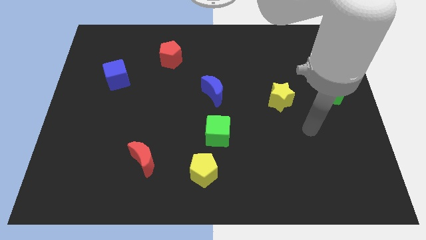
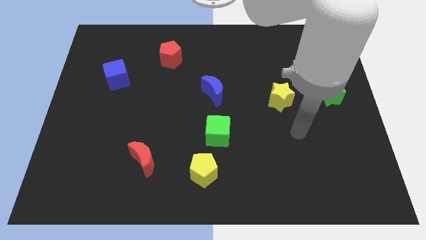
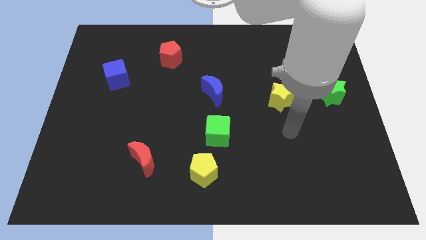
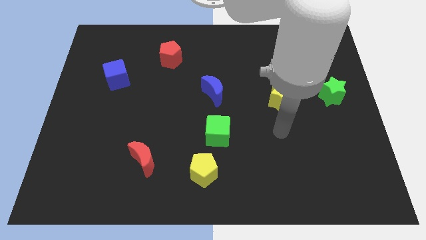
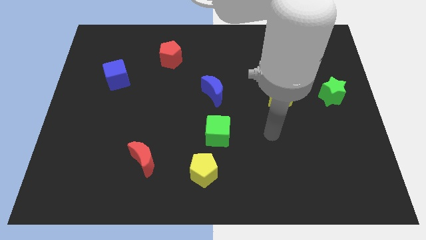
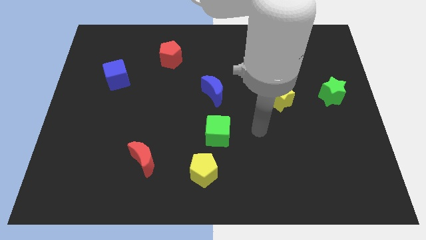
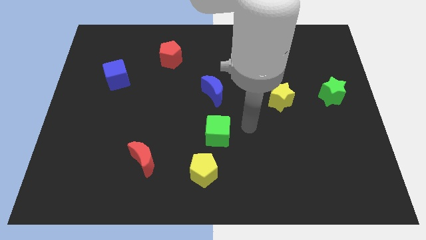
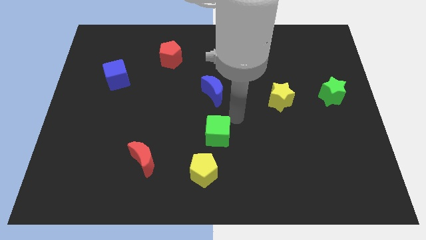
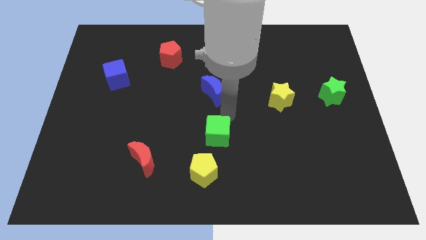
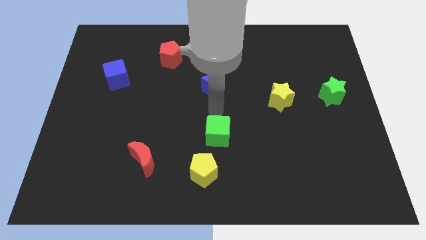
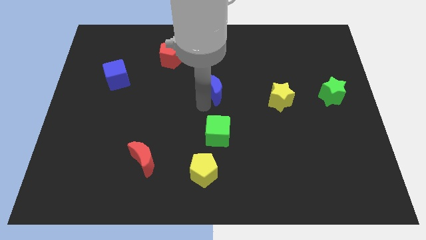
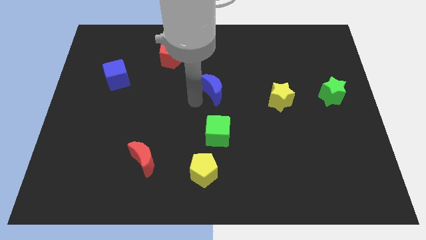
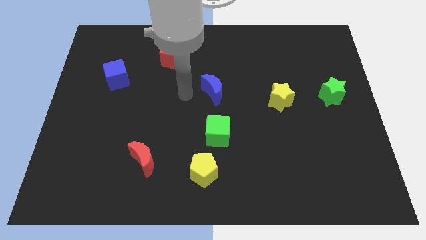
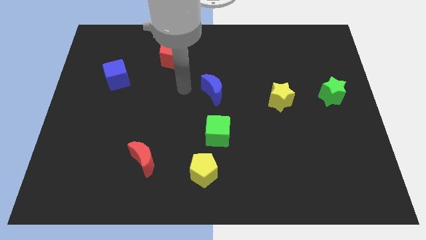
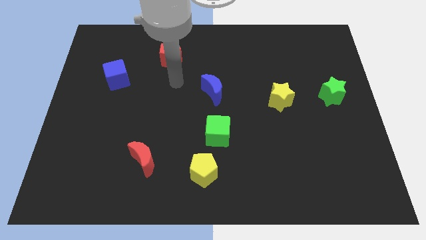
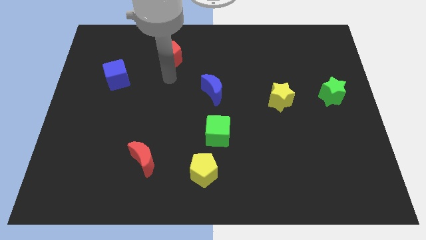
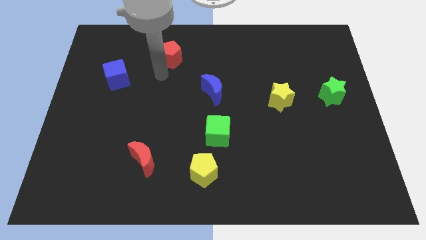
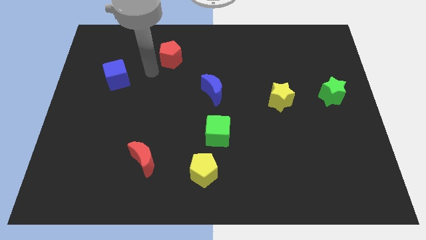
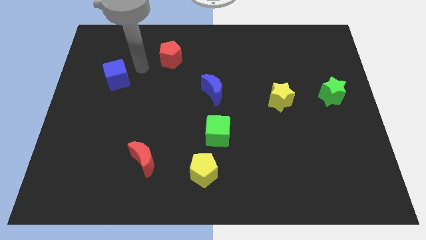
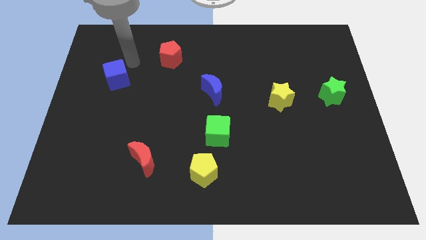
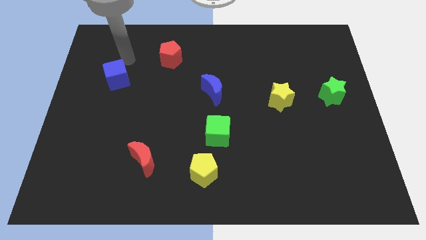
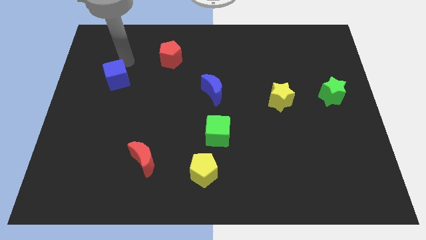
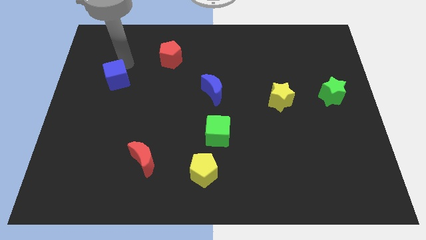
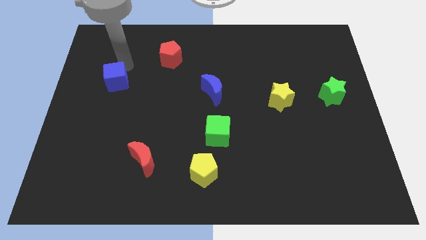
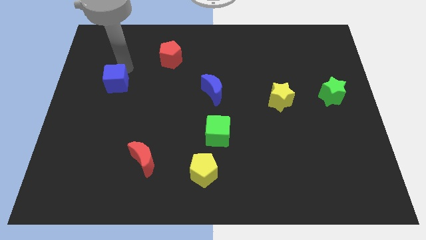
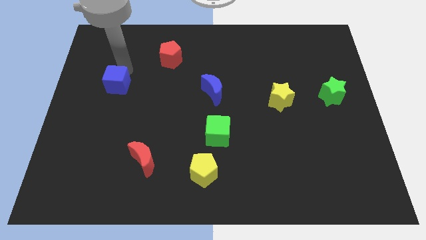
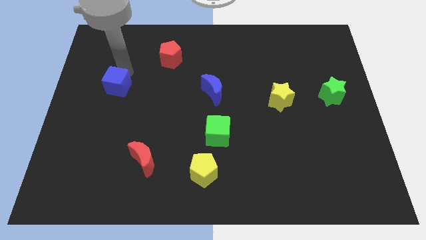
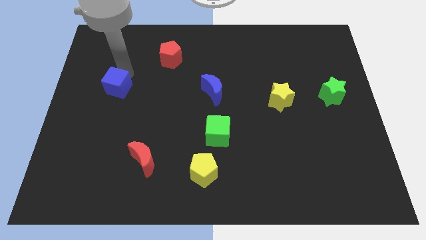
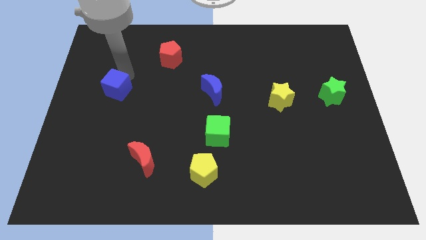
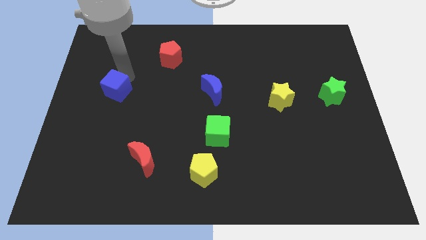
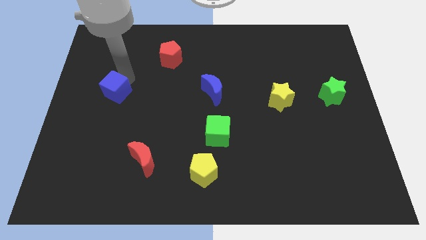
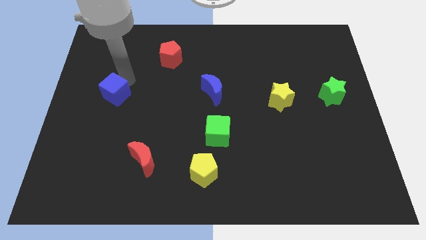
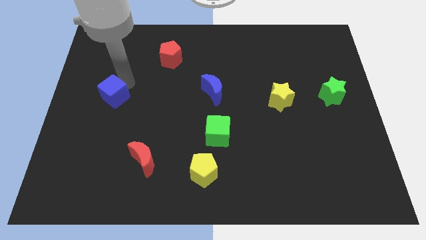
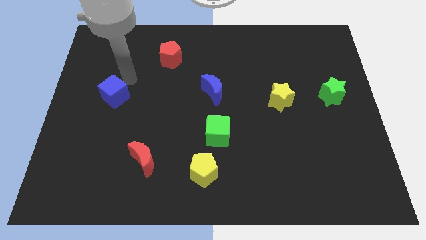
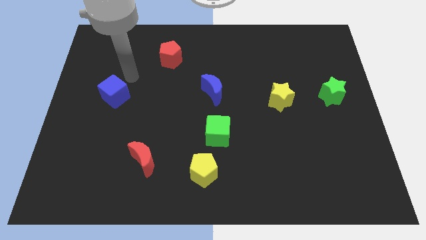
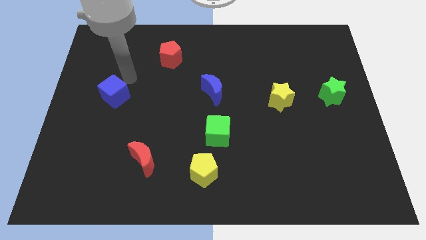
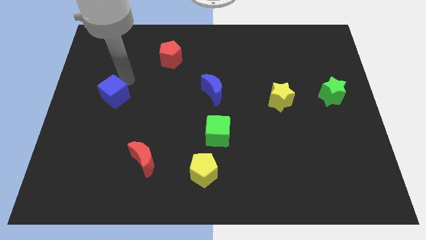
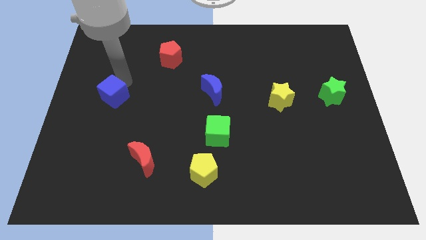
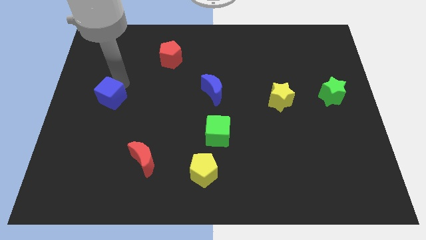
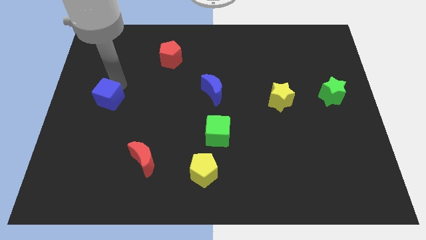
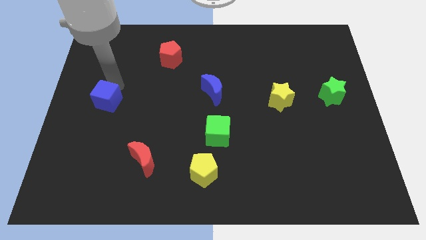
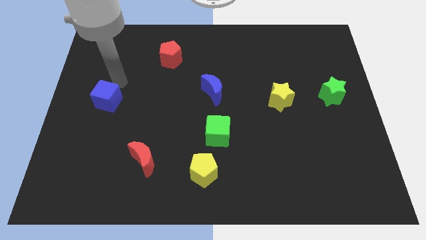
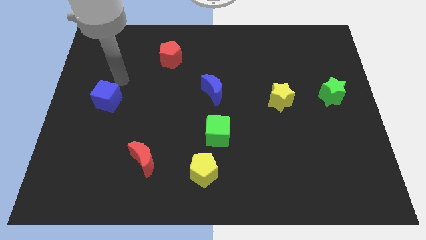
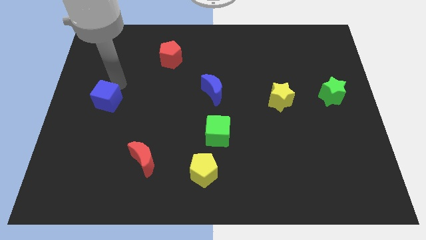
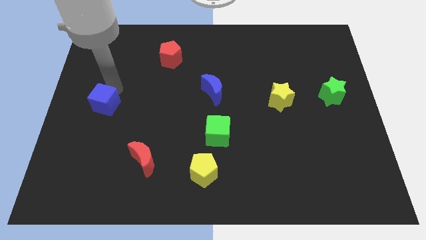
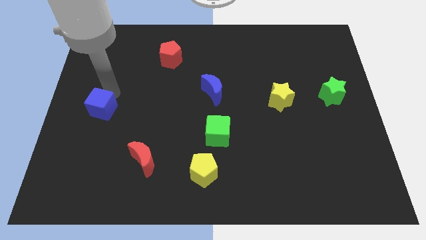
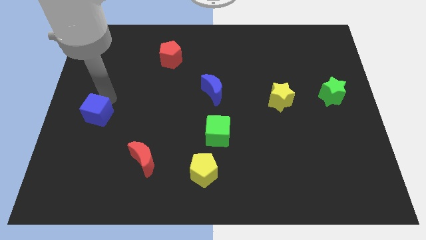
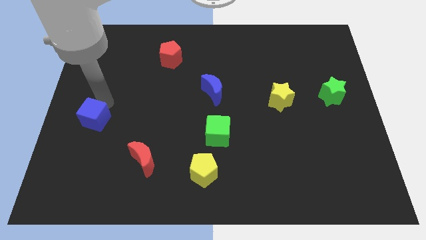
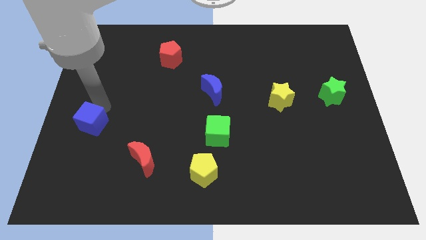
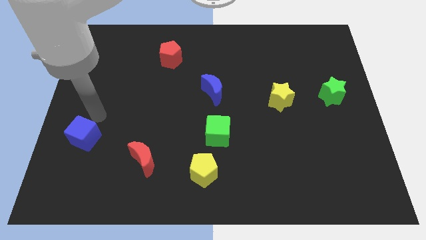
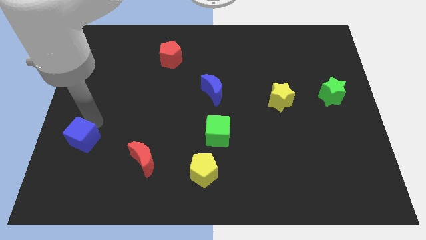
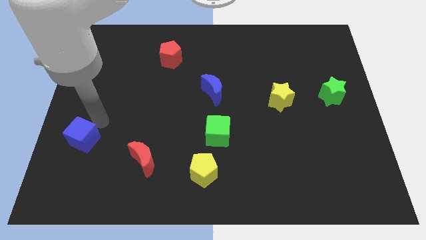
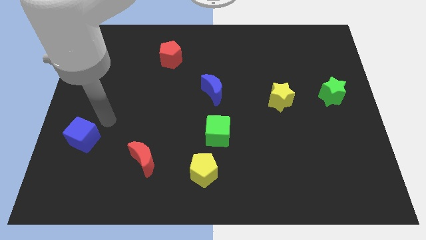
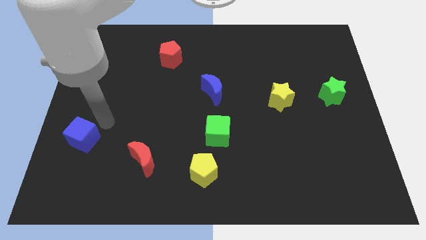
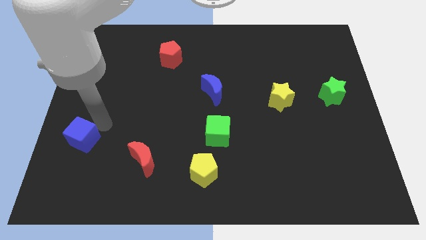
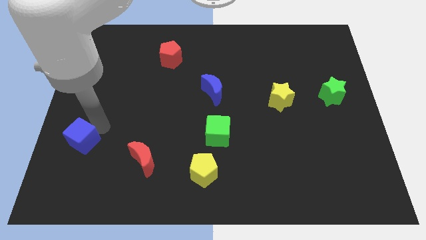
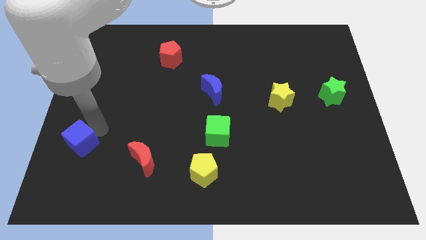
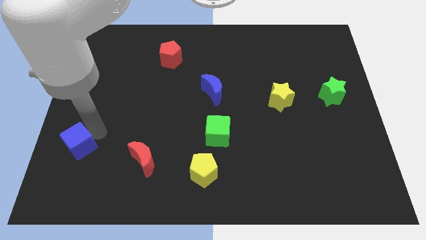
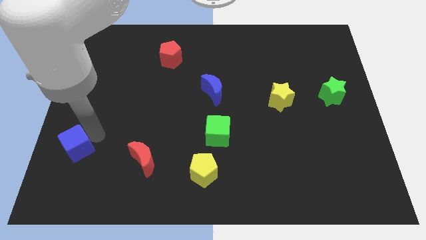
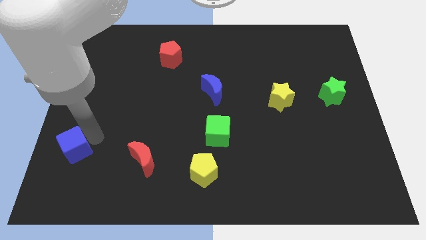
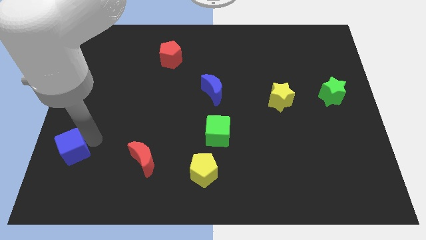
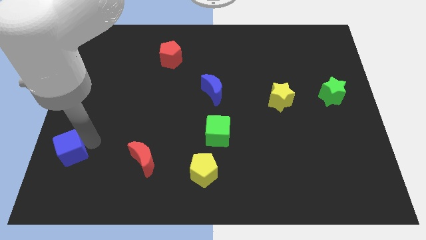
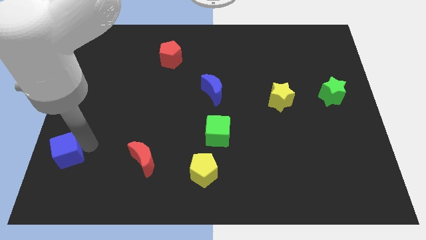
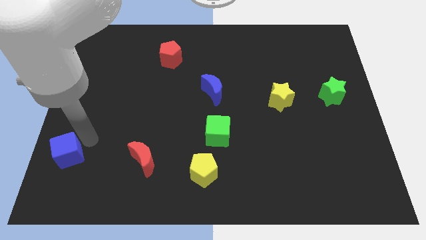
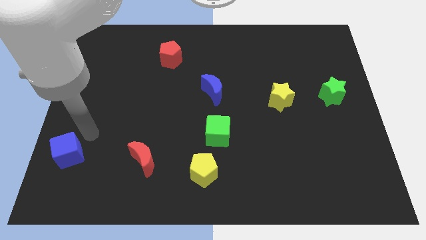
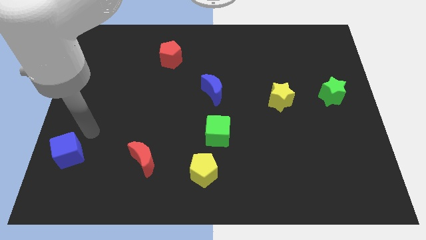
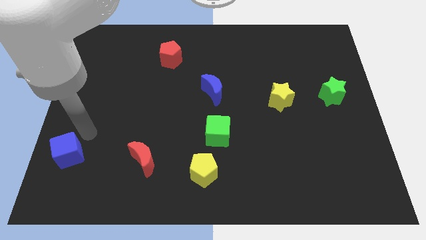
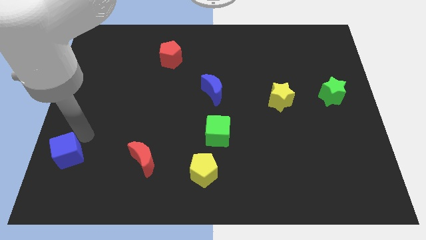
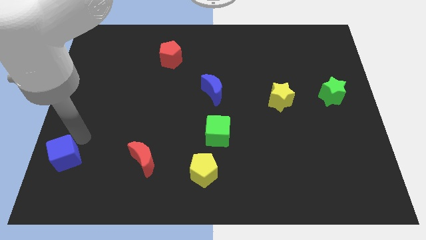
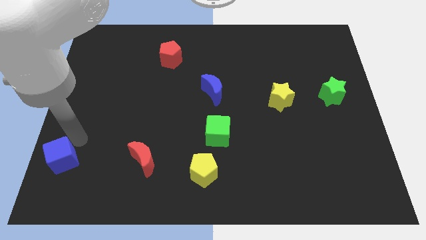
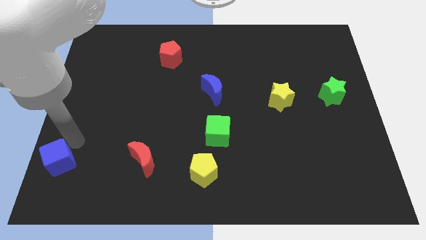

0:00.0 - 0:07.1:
move the blue cube to the bottom left corner

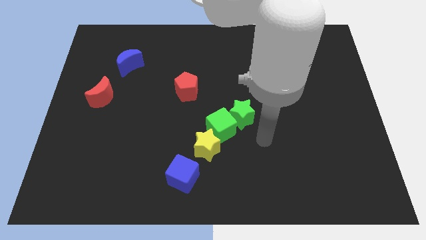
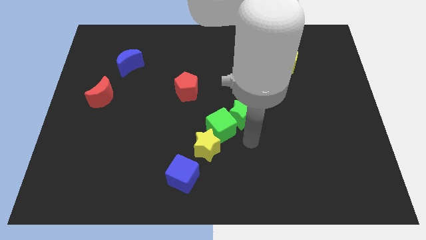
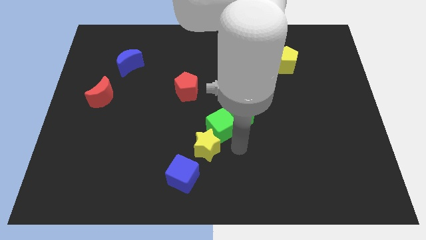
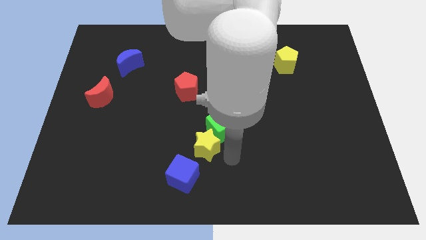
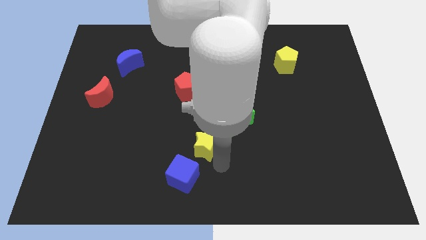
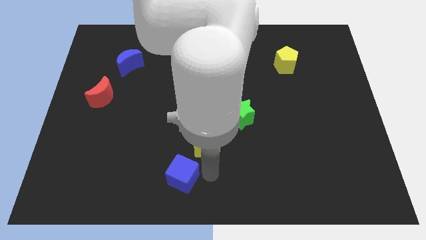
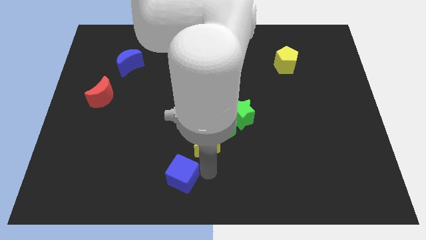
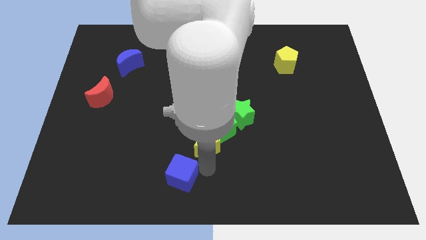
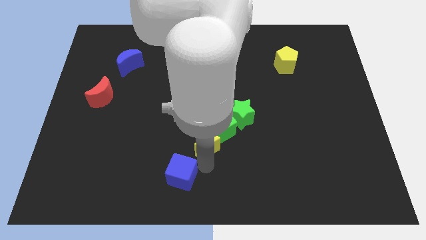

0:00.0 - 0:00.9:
put the yellow star to the center
